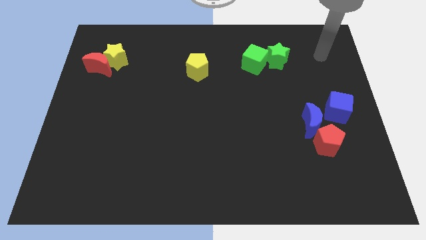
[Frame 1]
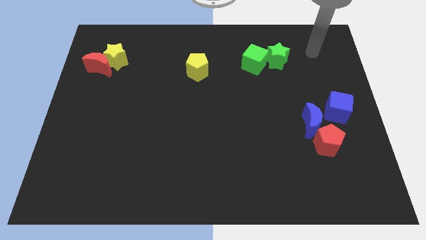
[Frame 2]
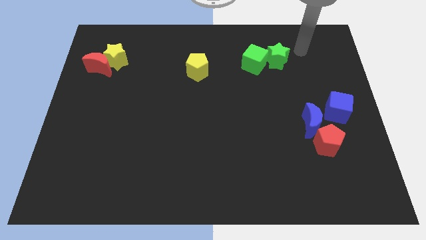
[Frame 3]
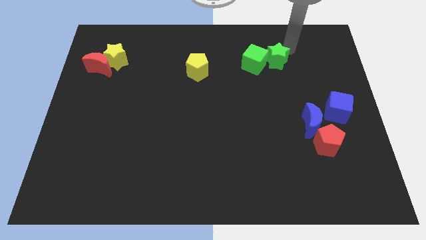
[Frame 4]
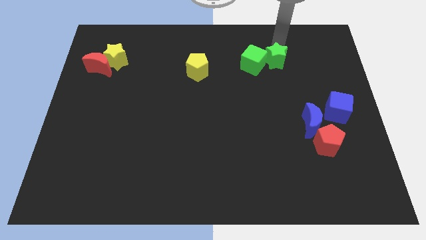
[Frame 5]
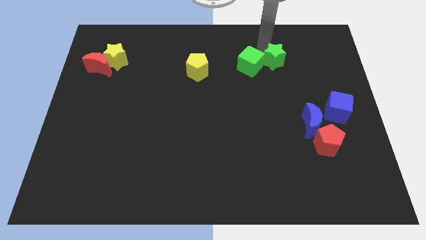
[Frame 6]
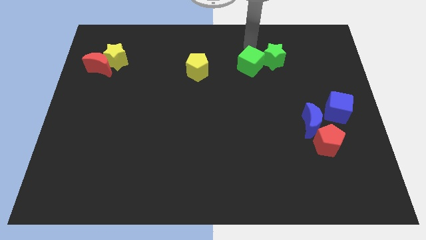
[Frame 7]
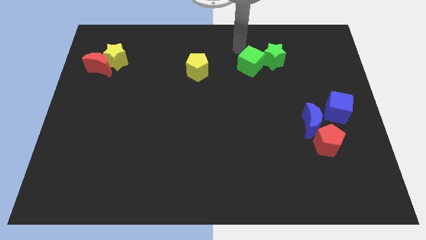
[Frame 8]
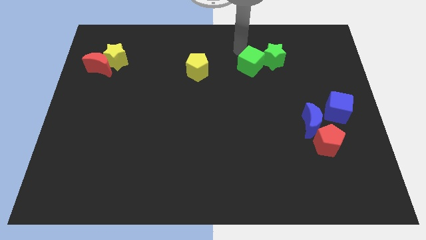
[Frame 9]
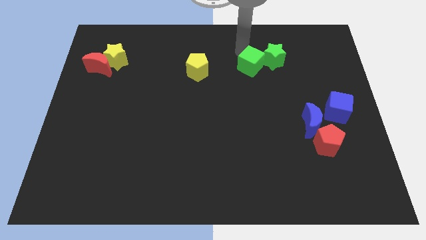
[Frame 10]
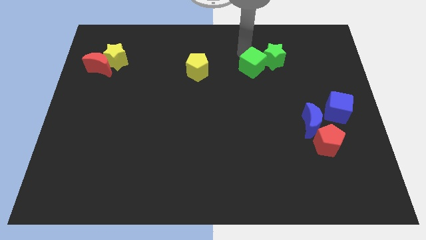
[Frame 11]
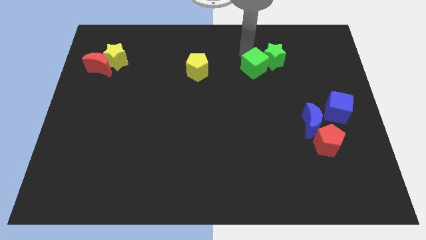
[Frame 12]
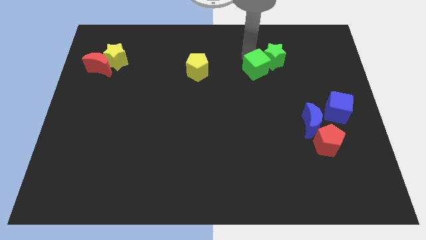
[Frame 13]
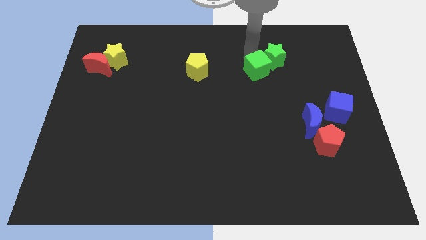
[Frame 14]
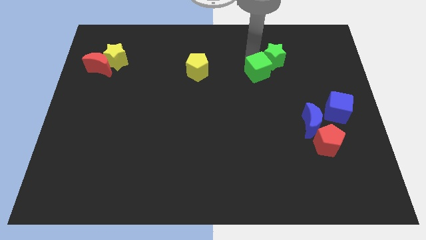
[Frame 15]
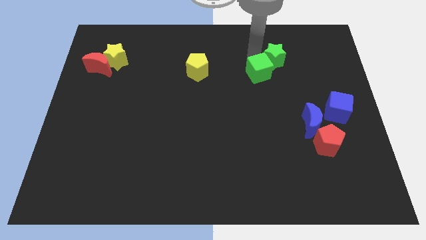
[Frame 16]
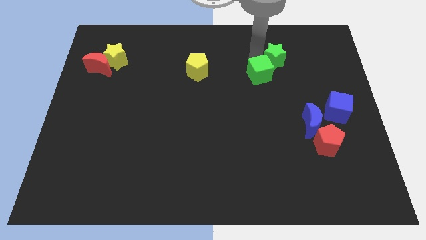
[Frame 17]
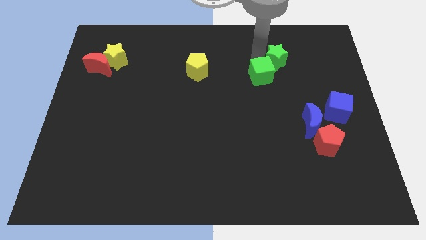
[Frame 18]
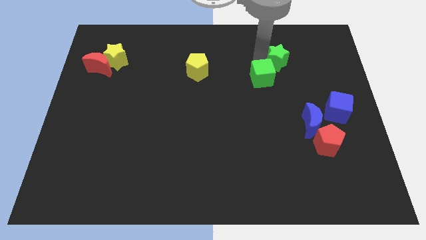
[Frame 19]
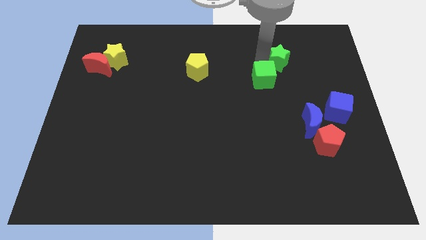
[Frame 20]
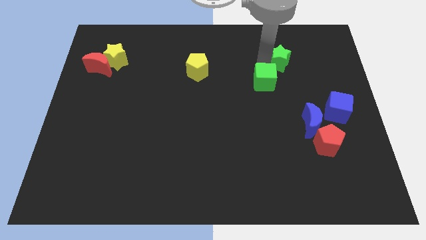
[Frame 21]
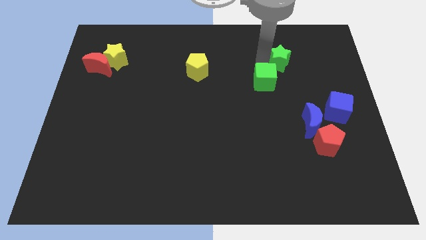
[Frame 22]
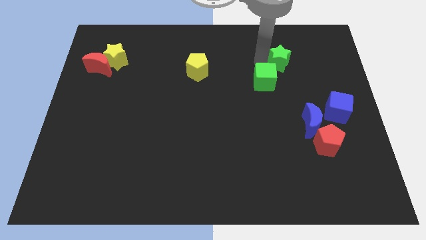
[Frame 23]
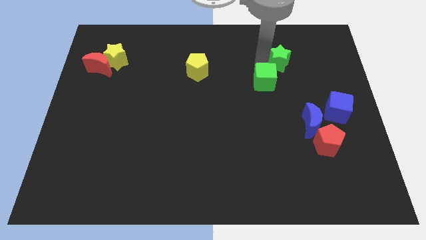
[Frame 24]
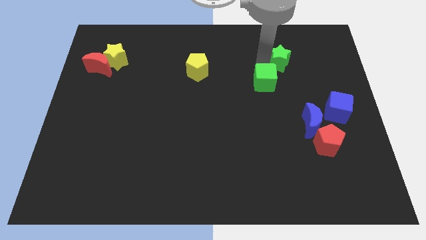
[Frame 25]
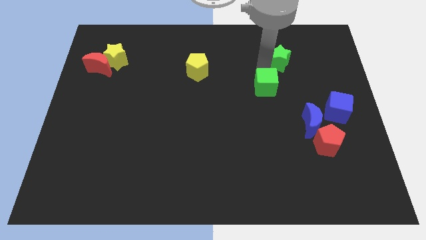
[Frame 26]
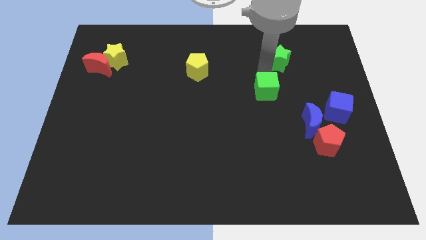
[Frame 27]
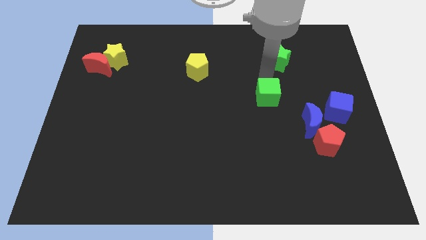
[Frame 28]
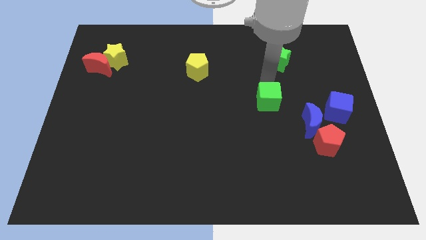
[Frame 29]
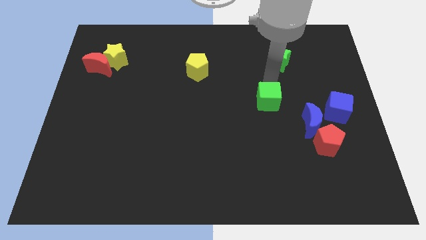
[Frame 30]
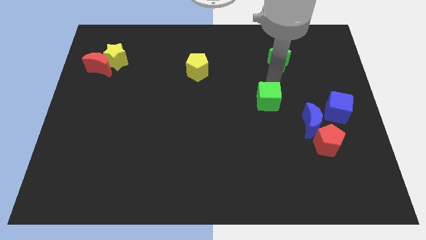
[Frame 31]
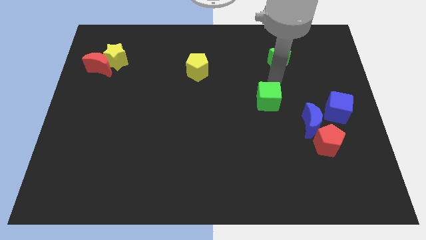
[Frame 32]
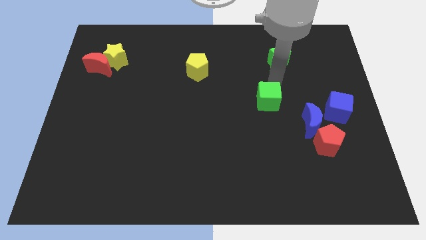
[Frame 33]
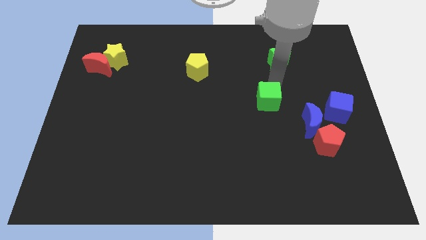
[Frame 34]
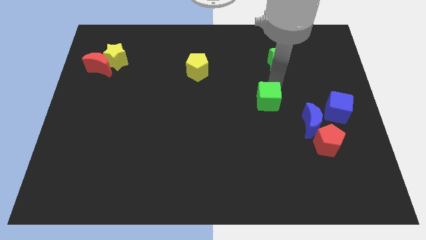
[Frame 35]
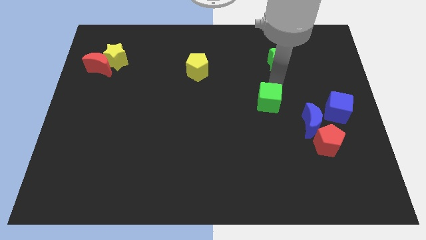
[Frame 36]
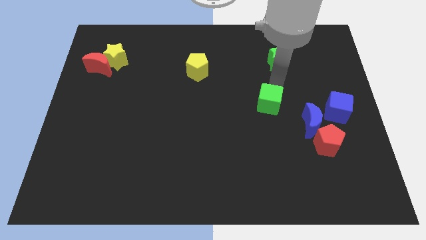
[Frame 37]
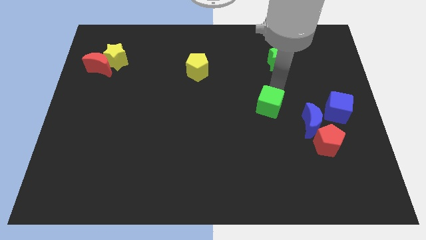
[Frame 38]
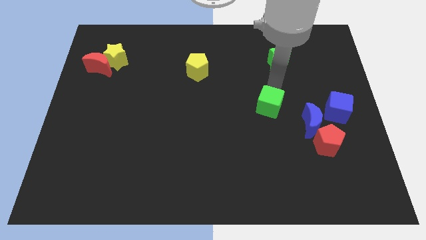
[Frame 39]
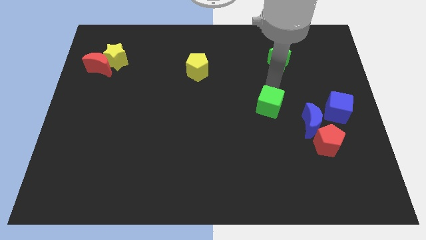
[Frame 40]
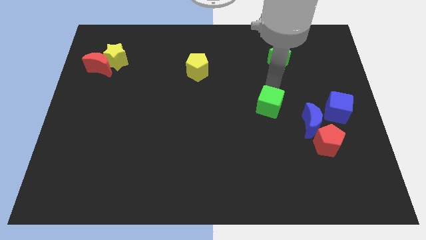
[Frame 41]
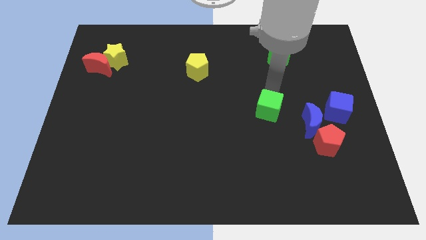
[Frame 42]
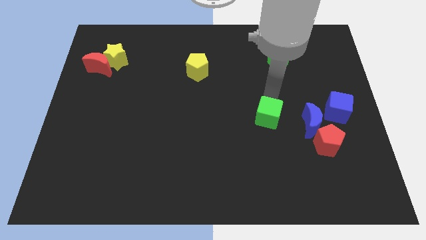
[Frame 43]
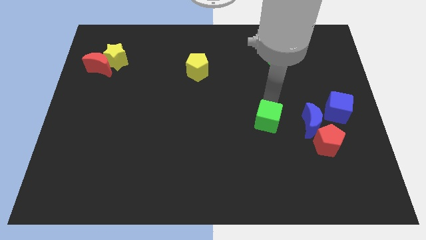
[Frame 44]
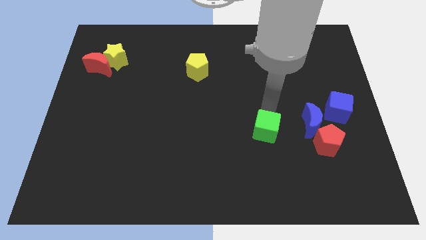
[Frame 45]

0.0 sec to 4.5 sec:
move the green cube downwards

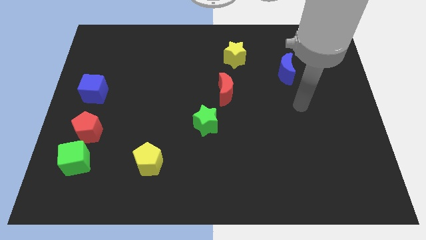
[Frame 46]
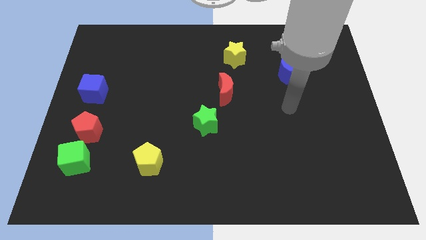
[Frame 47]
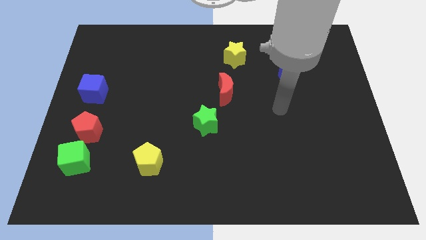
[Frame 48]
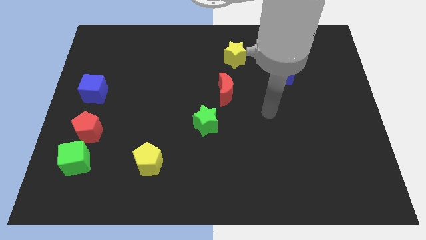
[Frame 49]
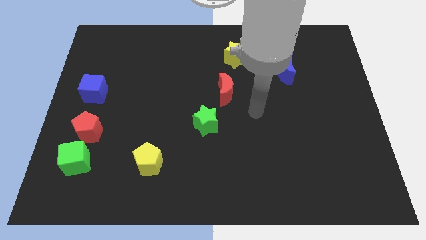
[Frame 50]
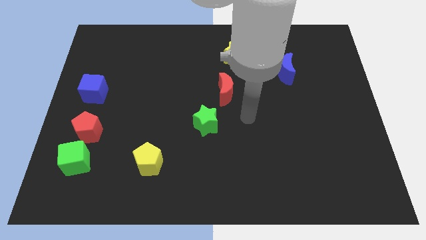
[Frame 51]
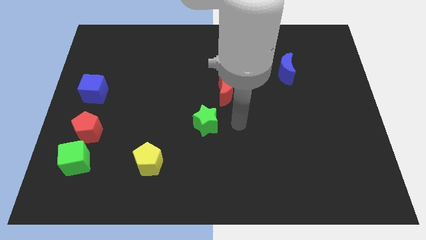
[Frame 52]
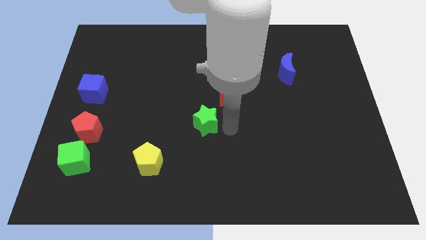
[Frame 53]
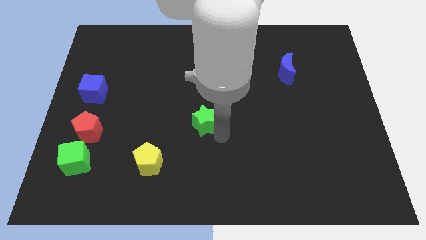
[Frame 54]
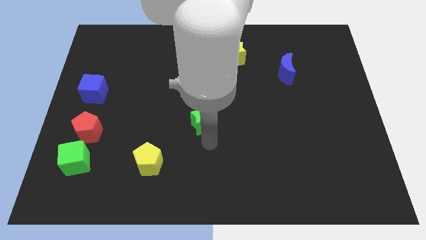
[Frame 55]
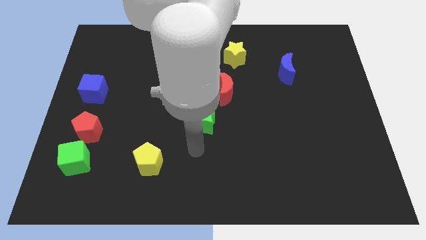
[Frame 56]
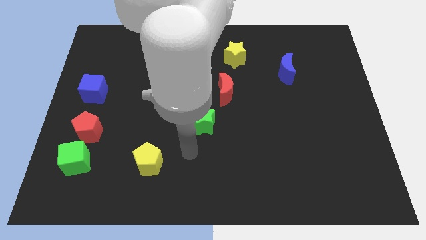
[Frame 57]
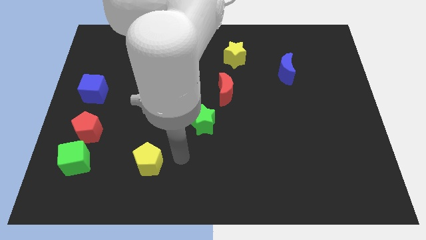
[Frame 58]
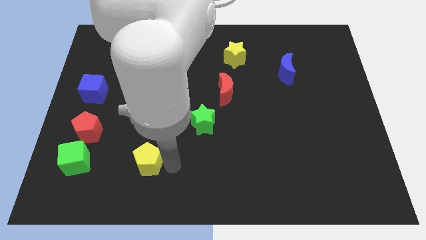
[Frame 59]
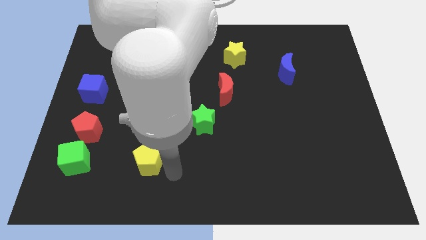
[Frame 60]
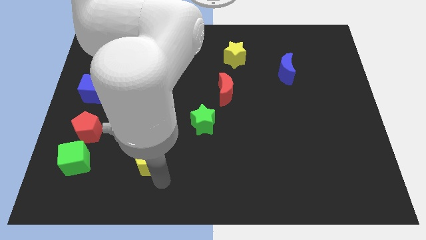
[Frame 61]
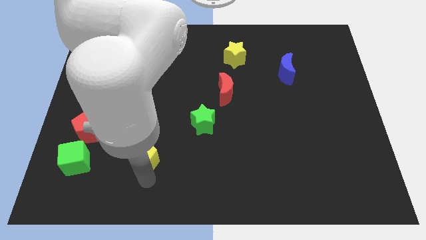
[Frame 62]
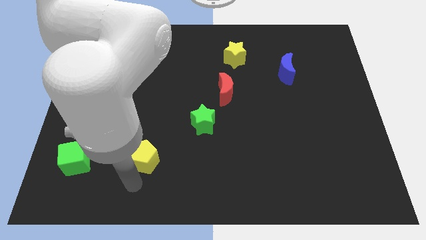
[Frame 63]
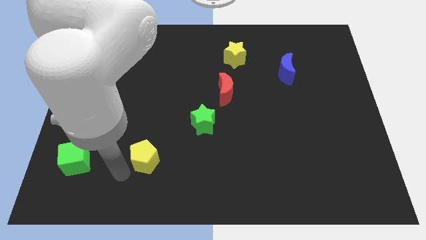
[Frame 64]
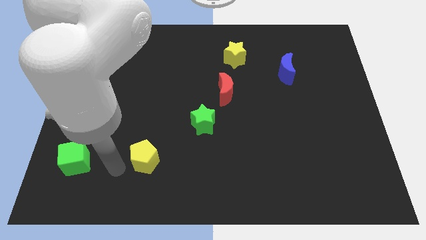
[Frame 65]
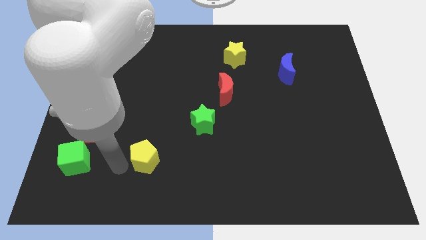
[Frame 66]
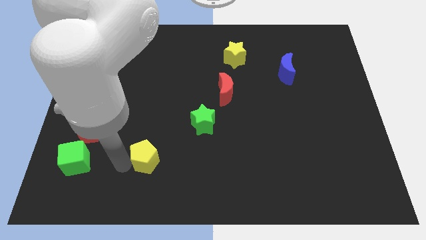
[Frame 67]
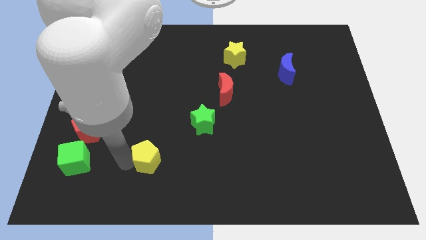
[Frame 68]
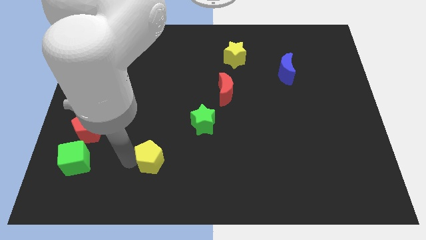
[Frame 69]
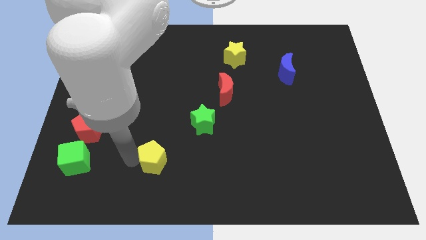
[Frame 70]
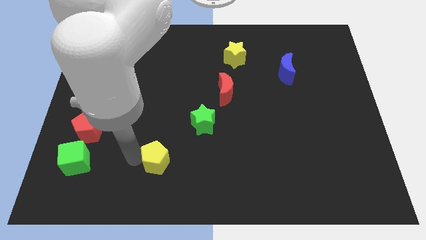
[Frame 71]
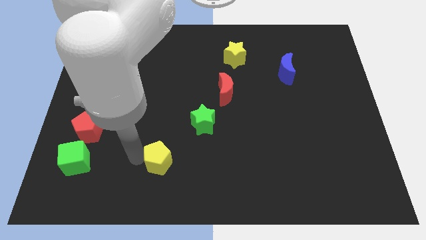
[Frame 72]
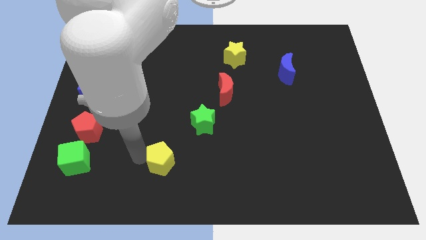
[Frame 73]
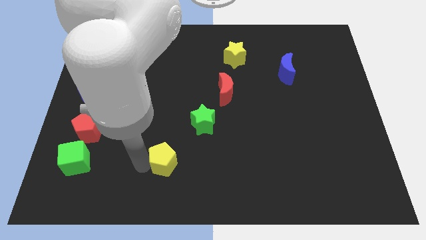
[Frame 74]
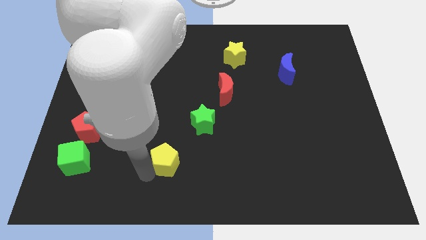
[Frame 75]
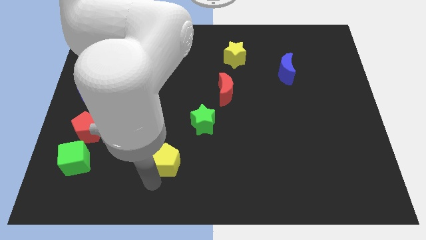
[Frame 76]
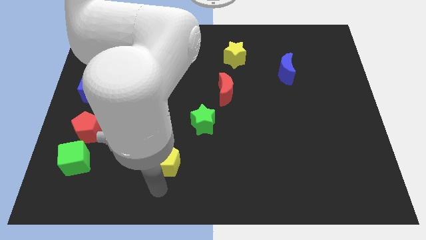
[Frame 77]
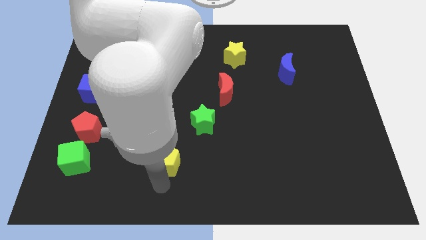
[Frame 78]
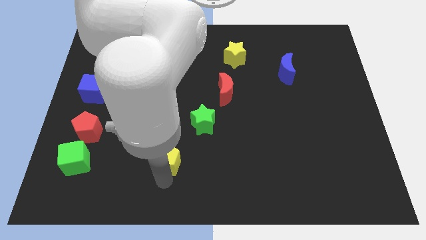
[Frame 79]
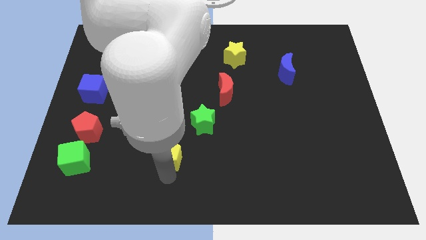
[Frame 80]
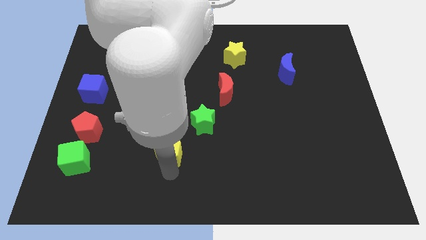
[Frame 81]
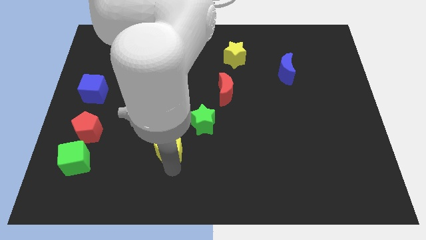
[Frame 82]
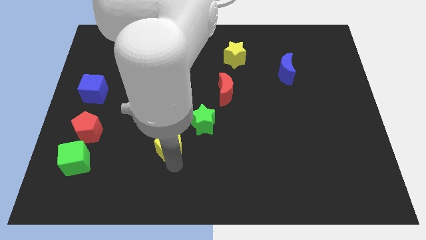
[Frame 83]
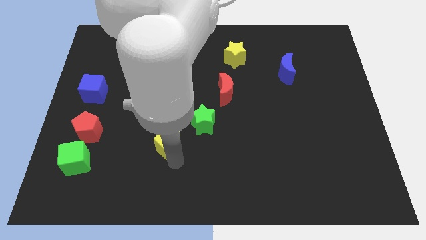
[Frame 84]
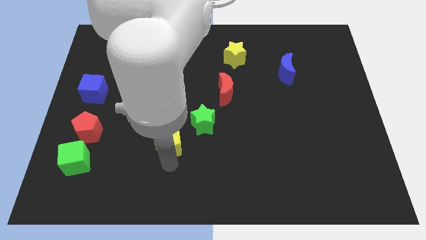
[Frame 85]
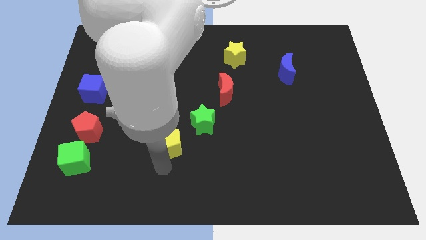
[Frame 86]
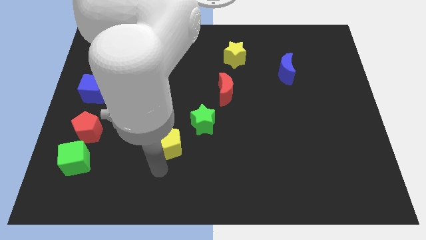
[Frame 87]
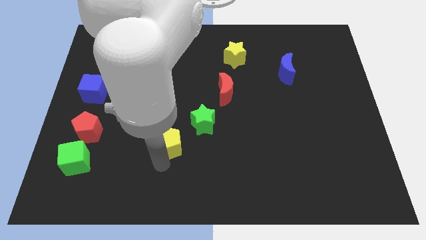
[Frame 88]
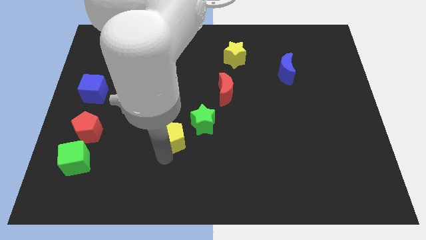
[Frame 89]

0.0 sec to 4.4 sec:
slightly push the yellow pentagon upwards and to the right diagonally
